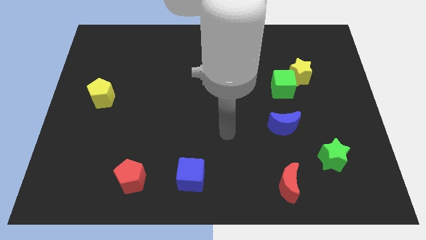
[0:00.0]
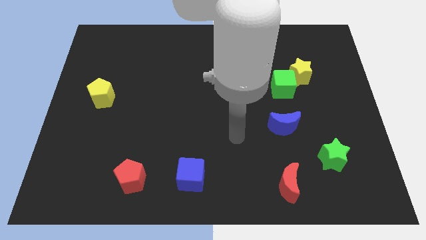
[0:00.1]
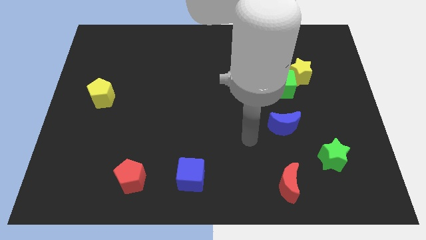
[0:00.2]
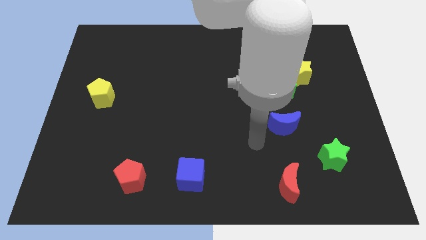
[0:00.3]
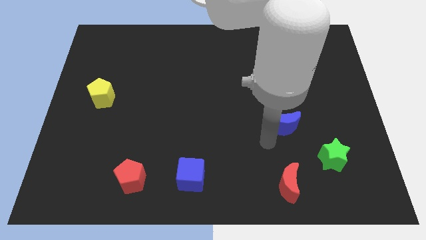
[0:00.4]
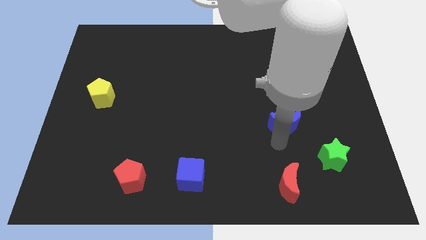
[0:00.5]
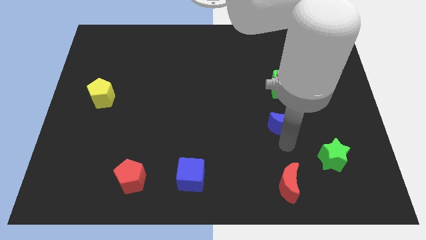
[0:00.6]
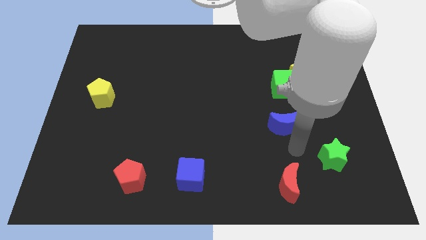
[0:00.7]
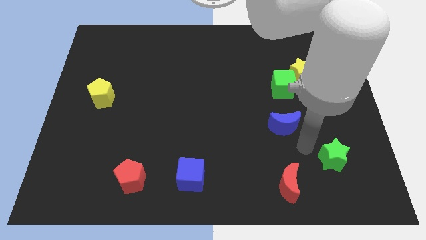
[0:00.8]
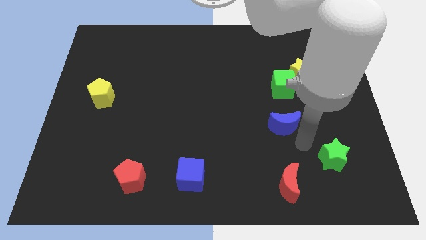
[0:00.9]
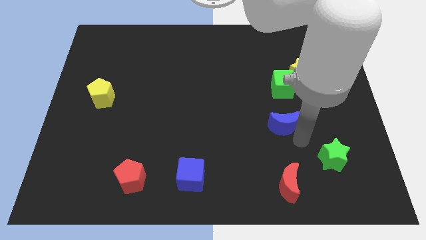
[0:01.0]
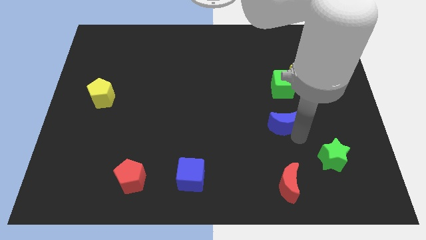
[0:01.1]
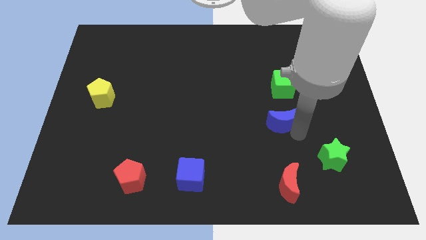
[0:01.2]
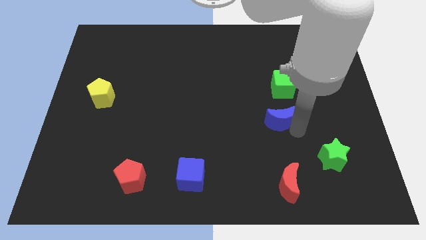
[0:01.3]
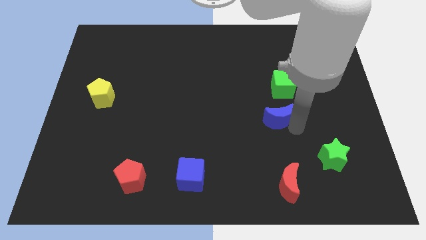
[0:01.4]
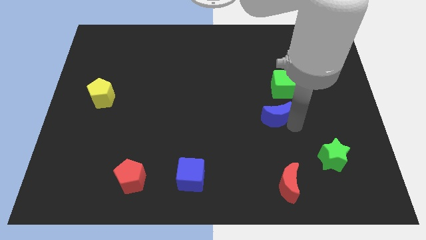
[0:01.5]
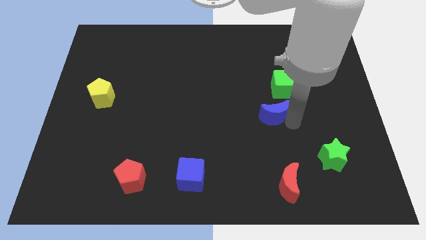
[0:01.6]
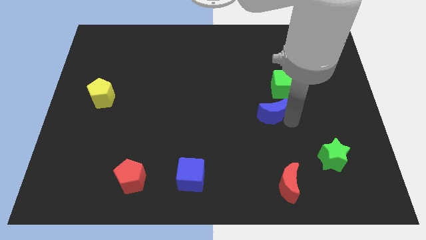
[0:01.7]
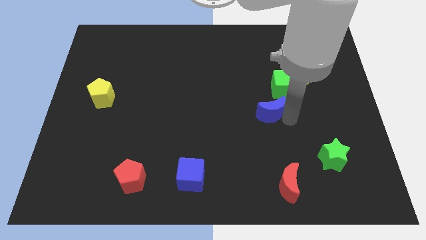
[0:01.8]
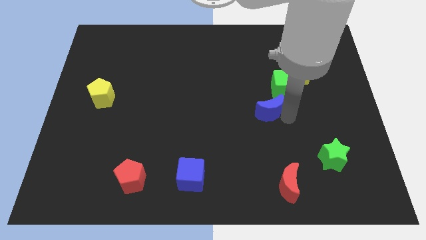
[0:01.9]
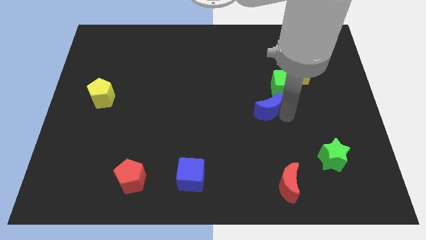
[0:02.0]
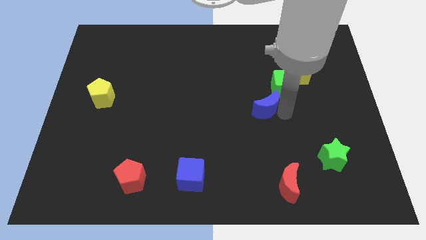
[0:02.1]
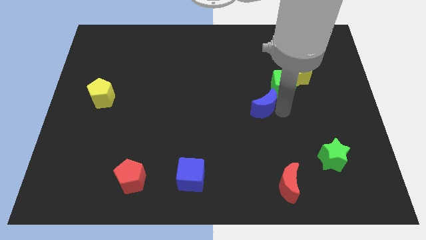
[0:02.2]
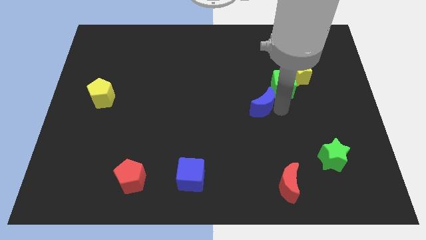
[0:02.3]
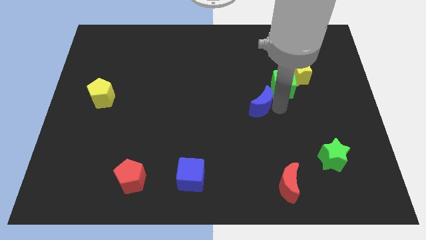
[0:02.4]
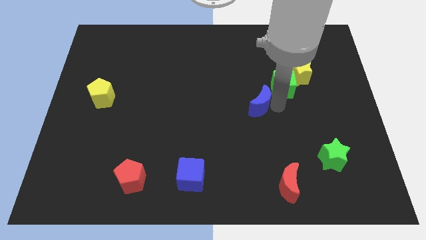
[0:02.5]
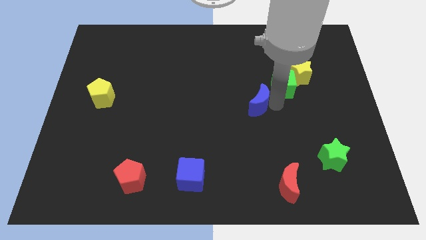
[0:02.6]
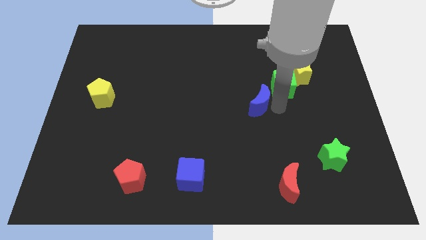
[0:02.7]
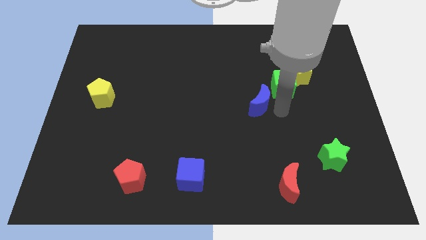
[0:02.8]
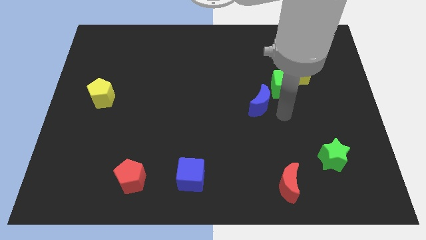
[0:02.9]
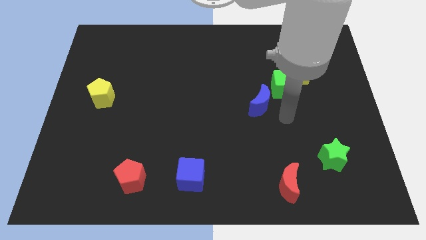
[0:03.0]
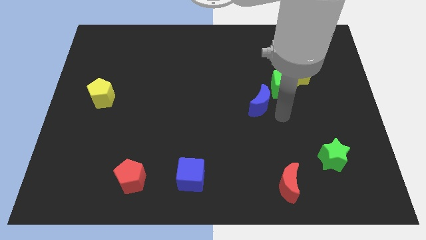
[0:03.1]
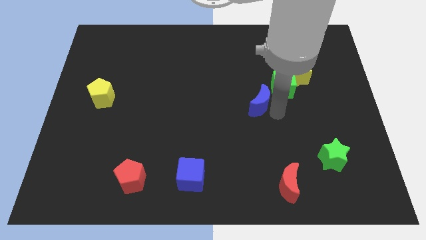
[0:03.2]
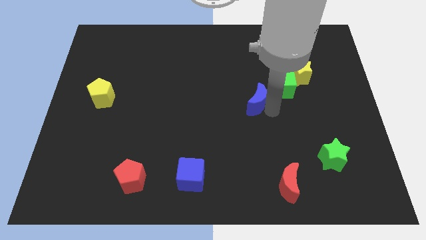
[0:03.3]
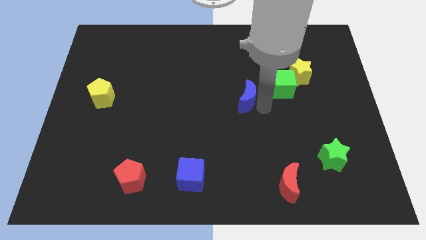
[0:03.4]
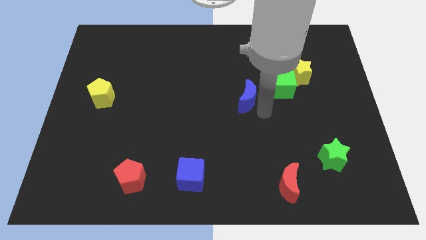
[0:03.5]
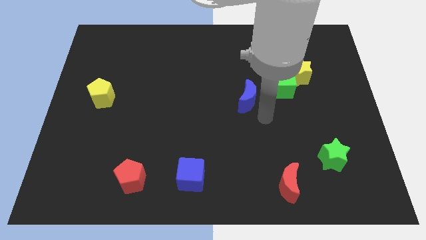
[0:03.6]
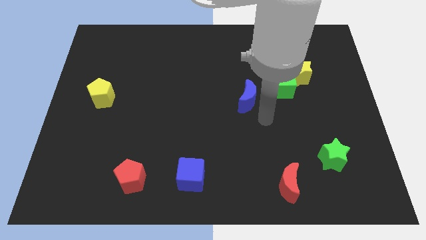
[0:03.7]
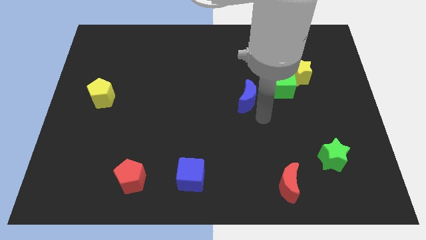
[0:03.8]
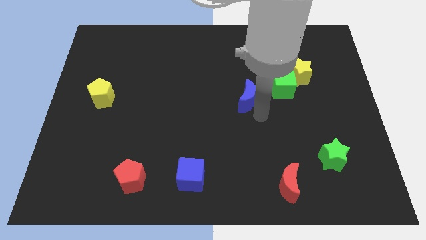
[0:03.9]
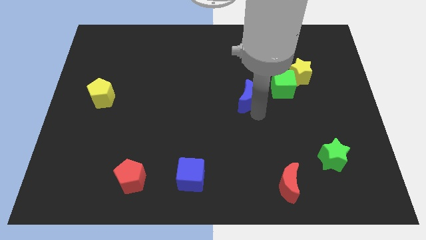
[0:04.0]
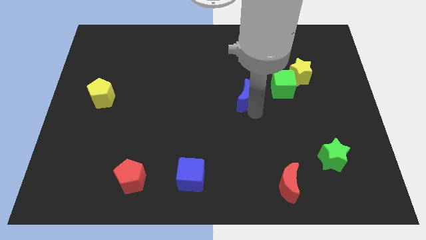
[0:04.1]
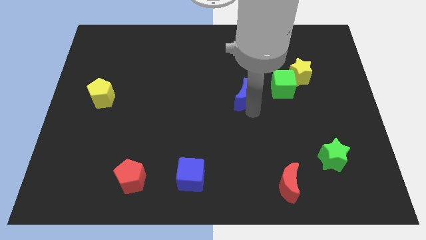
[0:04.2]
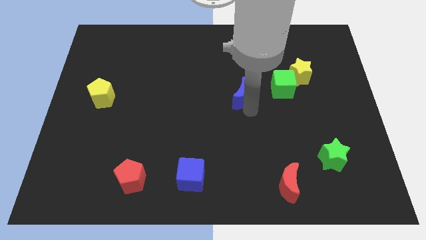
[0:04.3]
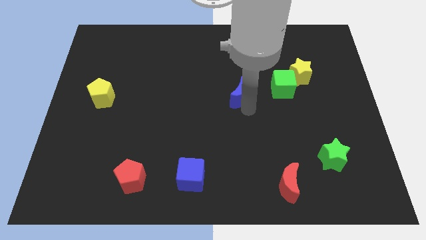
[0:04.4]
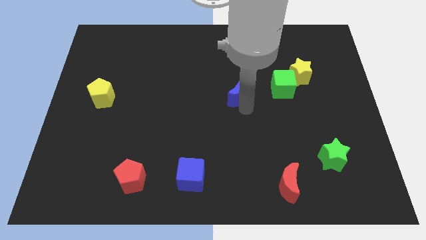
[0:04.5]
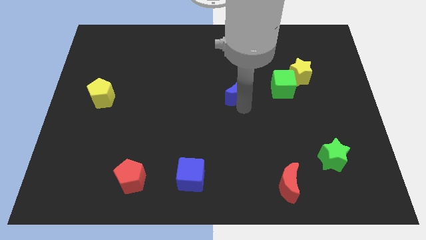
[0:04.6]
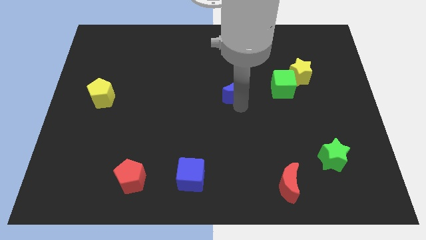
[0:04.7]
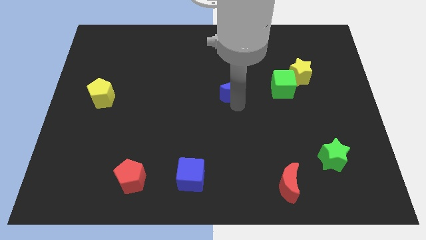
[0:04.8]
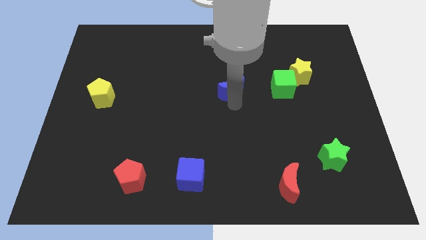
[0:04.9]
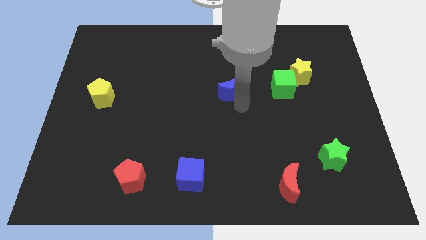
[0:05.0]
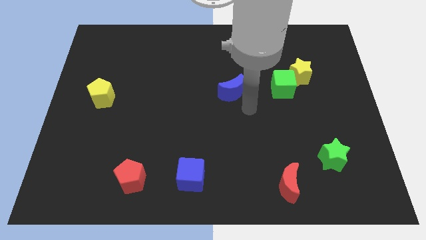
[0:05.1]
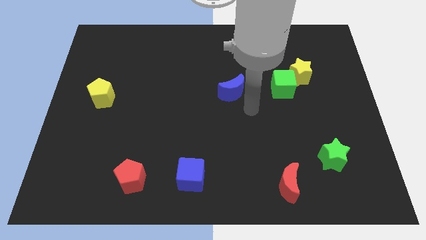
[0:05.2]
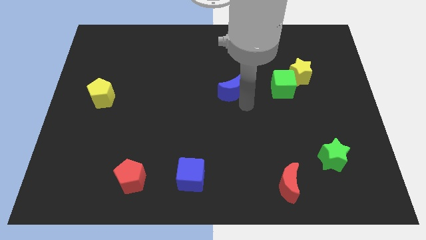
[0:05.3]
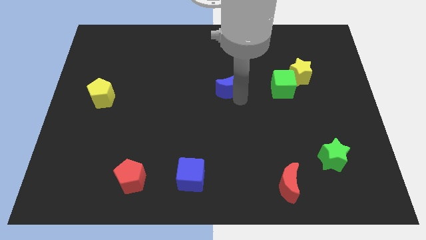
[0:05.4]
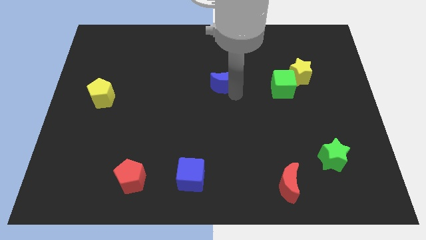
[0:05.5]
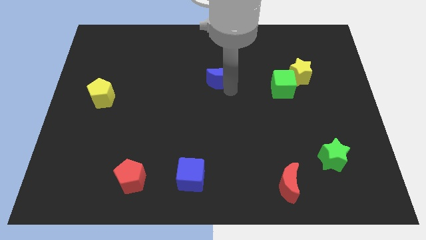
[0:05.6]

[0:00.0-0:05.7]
push the blue moon diagonally up and to the left

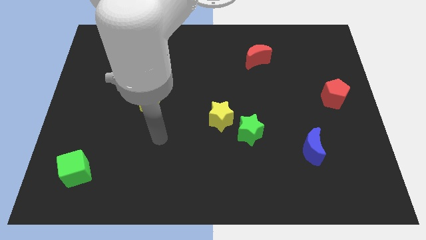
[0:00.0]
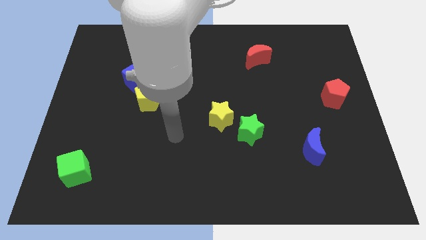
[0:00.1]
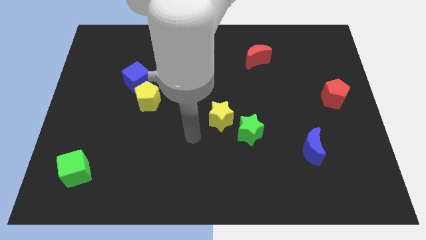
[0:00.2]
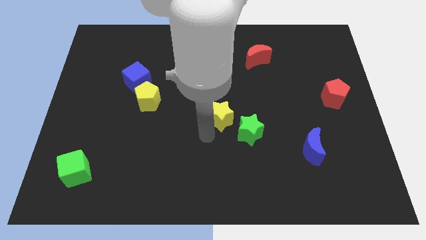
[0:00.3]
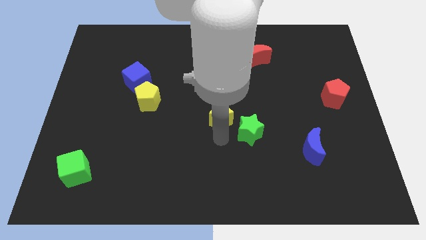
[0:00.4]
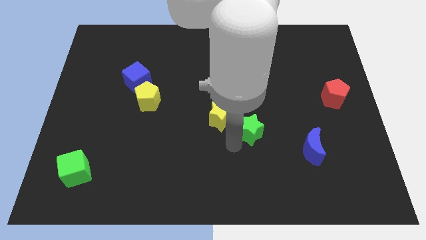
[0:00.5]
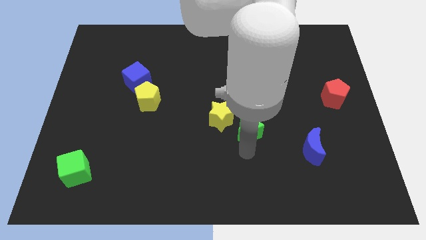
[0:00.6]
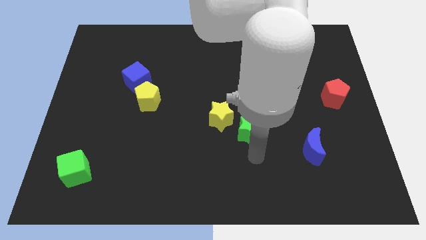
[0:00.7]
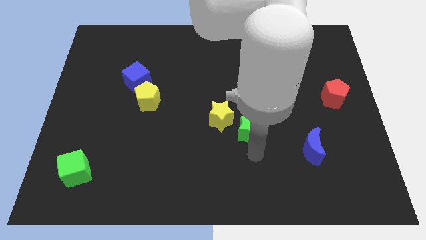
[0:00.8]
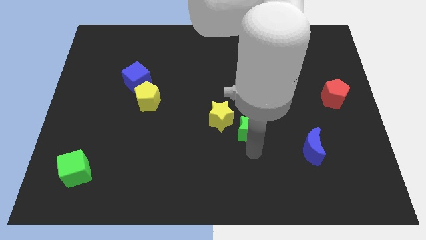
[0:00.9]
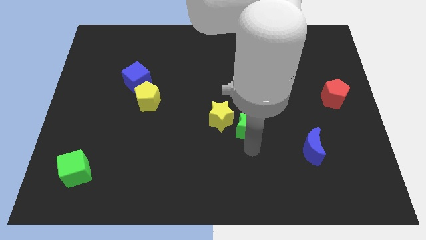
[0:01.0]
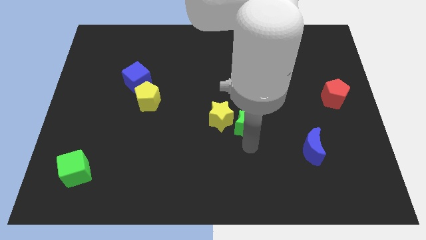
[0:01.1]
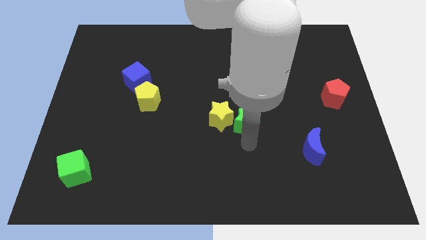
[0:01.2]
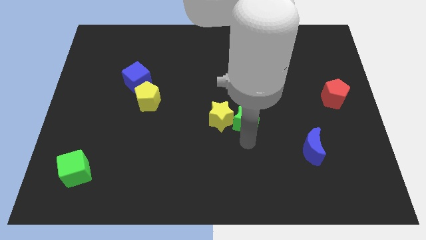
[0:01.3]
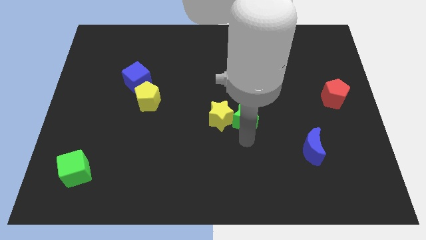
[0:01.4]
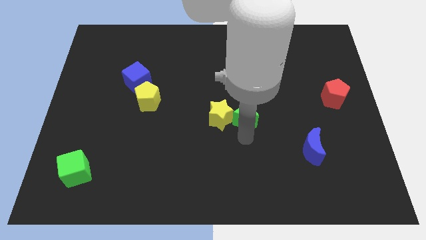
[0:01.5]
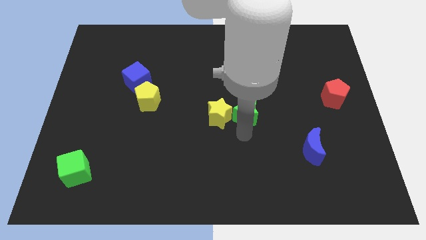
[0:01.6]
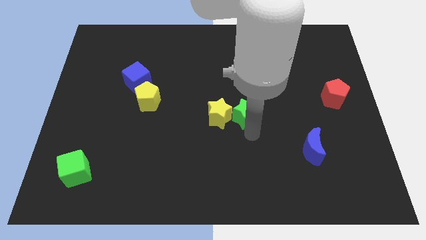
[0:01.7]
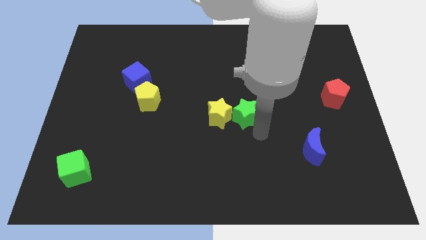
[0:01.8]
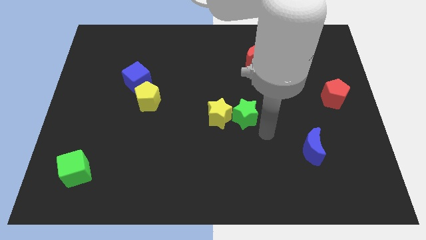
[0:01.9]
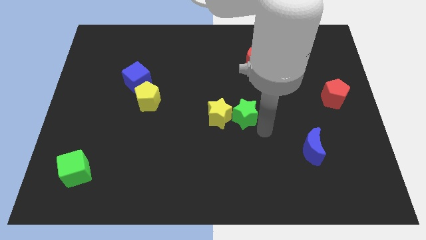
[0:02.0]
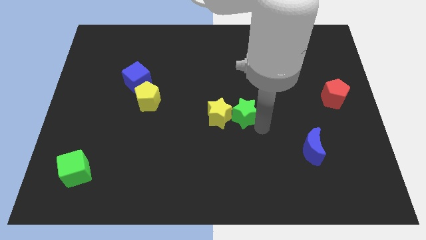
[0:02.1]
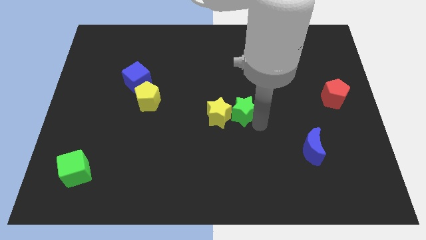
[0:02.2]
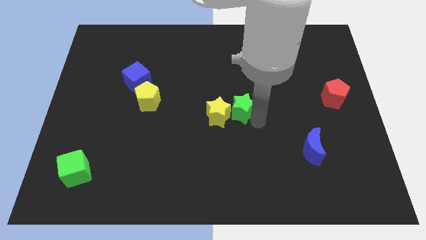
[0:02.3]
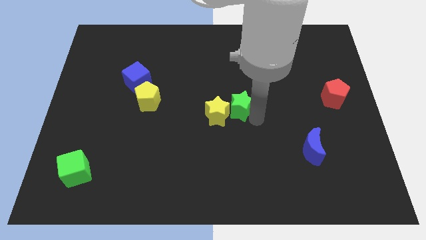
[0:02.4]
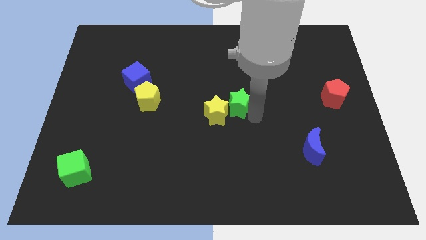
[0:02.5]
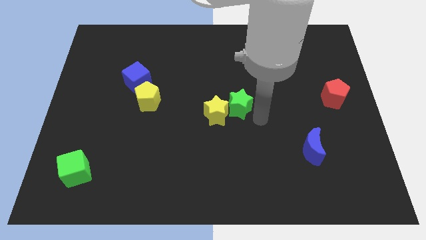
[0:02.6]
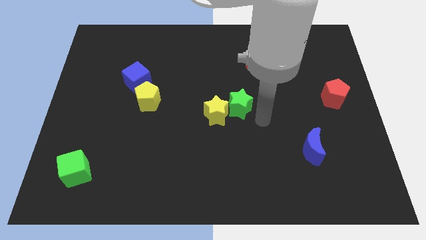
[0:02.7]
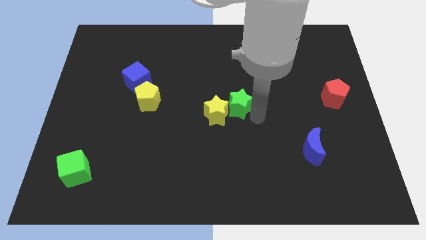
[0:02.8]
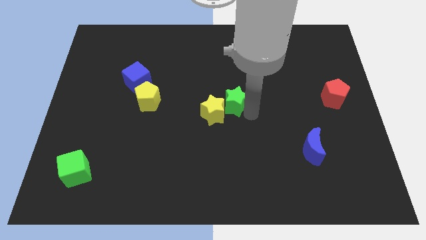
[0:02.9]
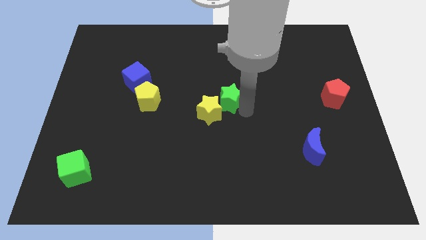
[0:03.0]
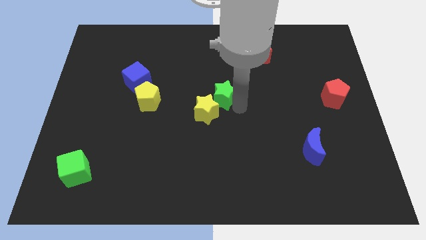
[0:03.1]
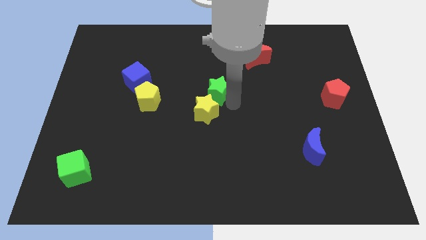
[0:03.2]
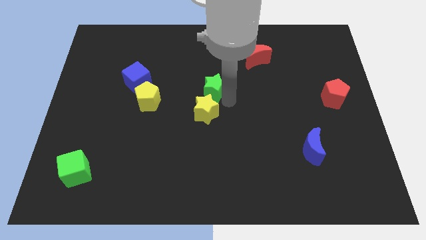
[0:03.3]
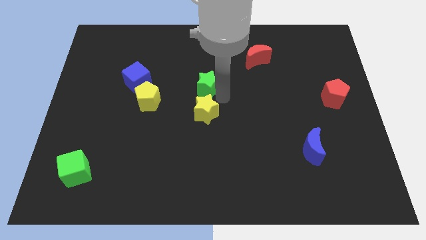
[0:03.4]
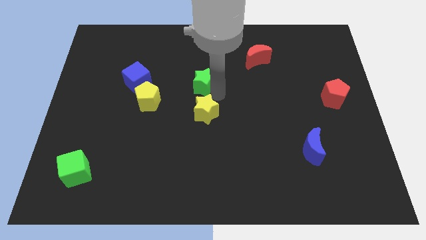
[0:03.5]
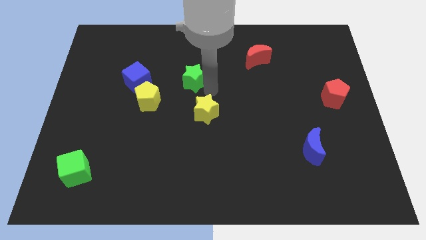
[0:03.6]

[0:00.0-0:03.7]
move the green star up and to the left
